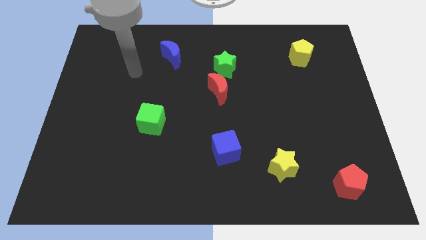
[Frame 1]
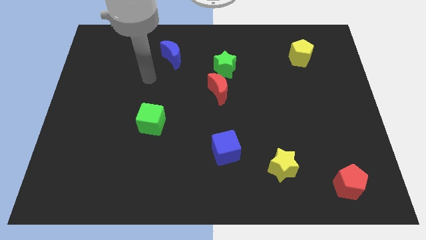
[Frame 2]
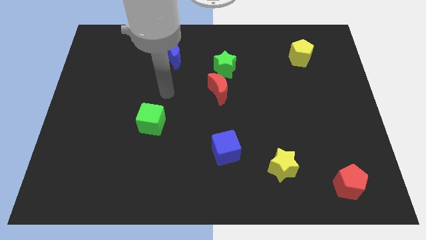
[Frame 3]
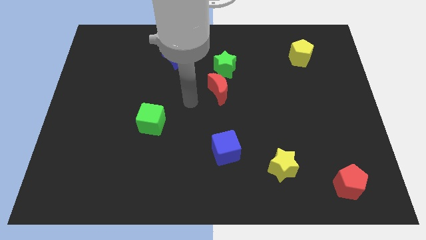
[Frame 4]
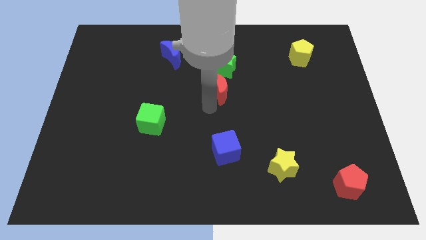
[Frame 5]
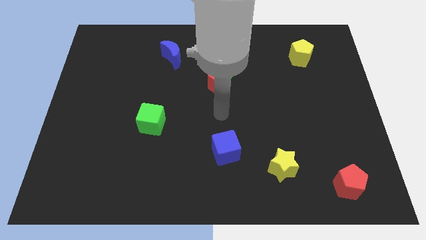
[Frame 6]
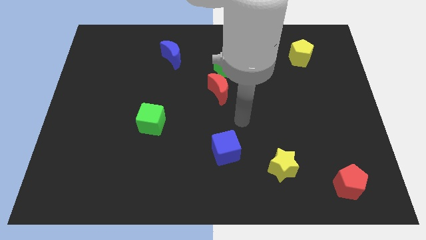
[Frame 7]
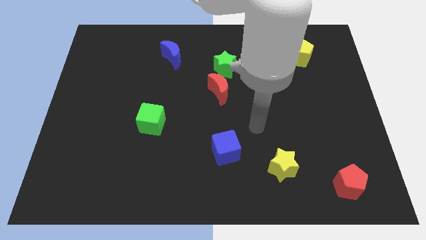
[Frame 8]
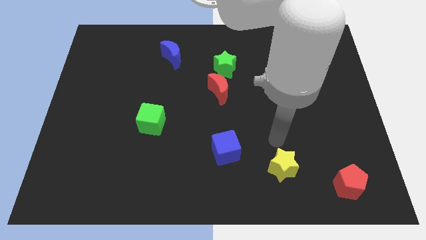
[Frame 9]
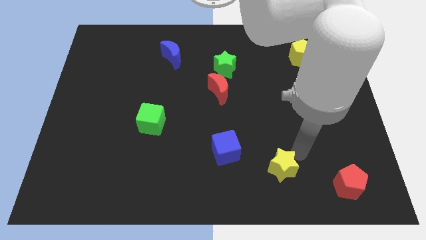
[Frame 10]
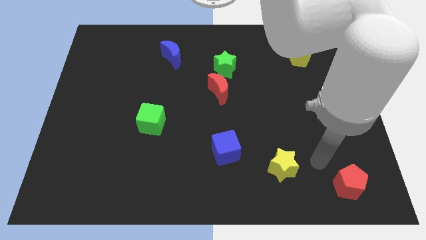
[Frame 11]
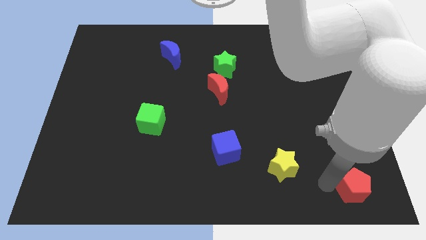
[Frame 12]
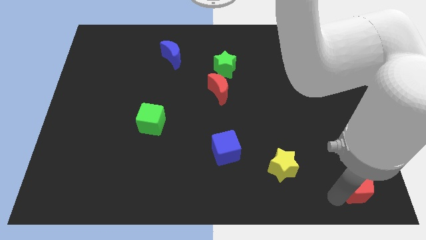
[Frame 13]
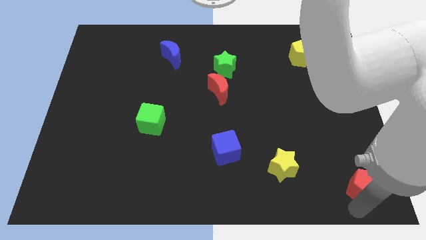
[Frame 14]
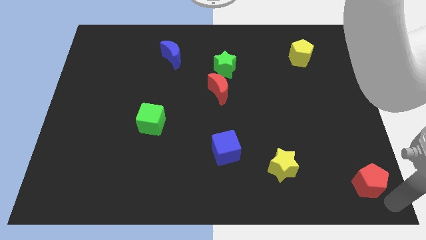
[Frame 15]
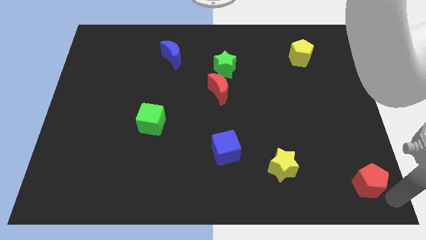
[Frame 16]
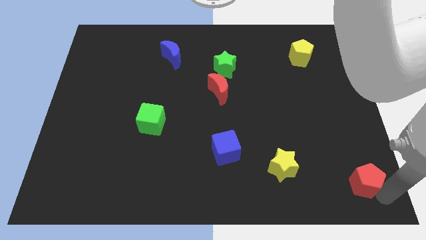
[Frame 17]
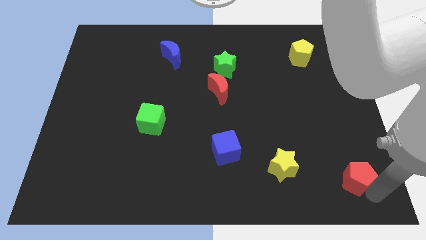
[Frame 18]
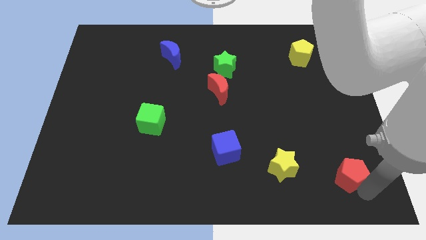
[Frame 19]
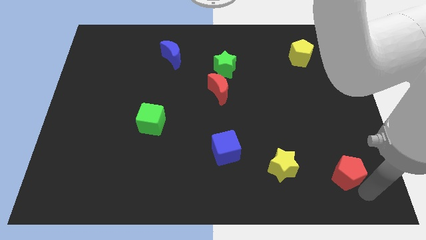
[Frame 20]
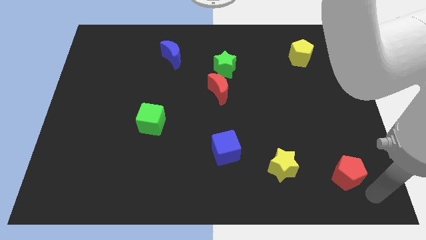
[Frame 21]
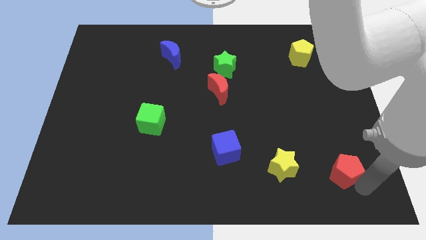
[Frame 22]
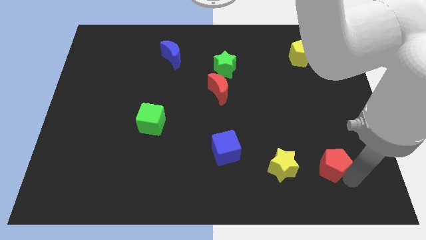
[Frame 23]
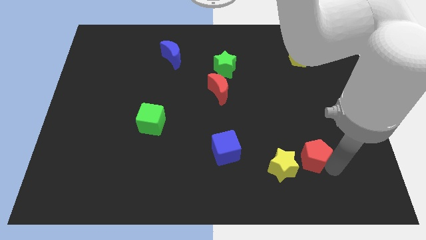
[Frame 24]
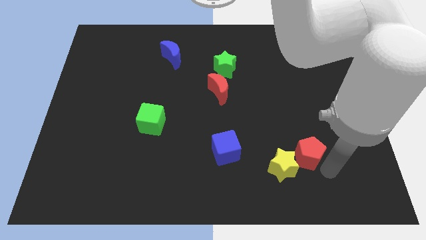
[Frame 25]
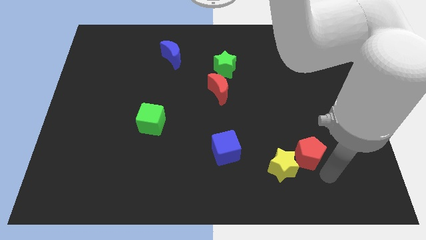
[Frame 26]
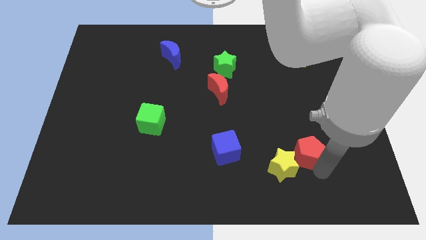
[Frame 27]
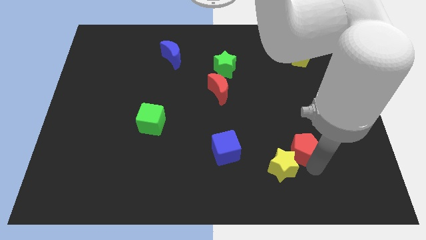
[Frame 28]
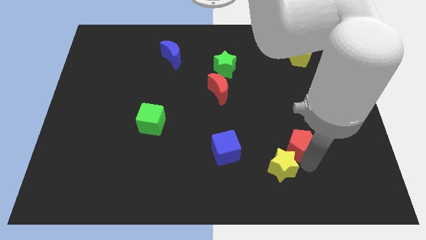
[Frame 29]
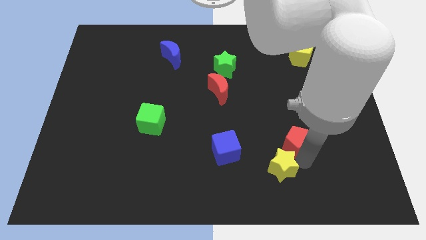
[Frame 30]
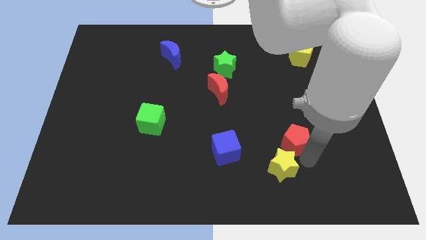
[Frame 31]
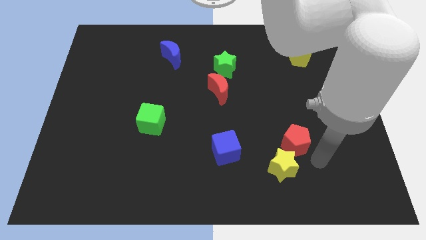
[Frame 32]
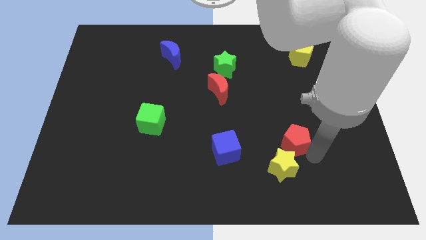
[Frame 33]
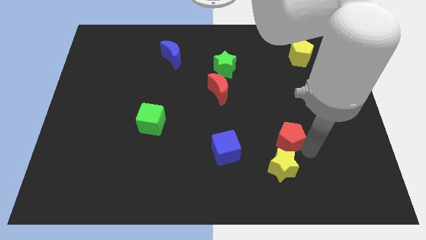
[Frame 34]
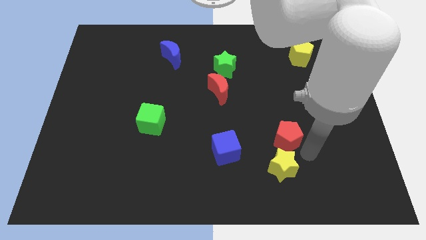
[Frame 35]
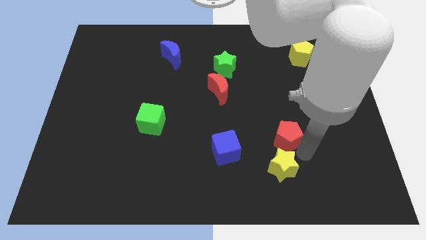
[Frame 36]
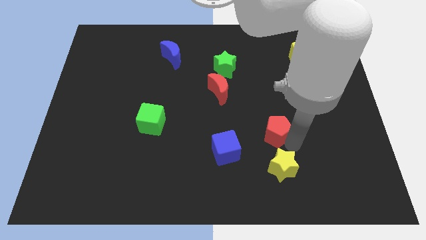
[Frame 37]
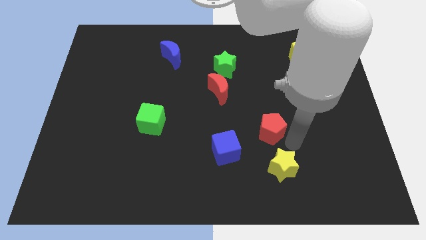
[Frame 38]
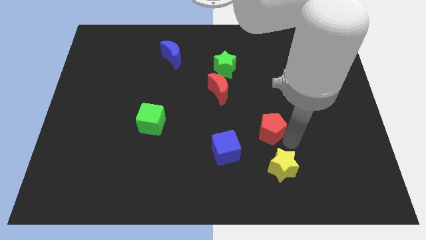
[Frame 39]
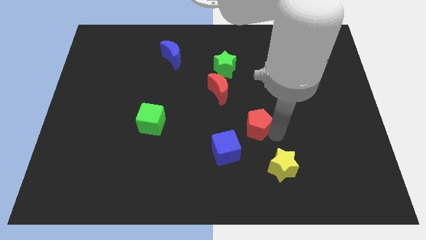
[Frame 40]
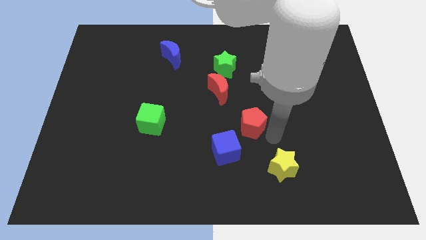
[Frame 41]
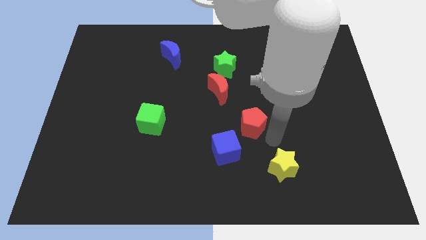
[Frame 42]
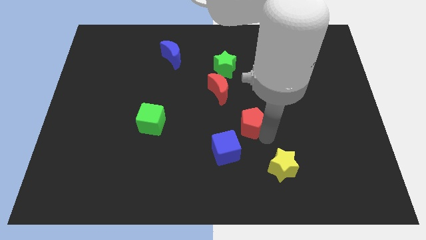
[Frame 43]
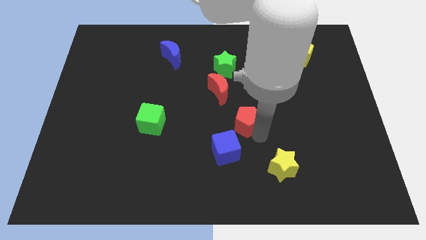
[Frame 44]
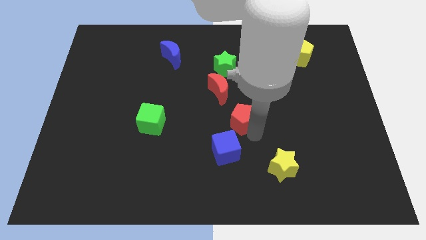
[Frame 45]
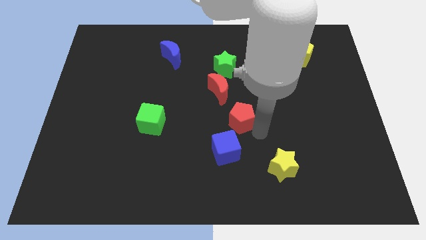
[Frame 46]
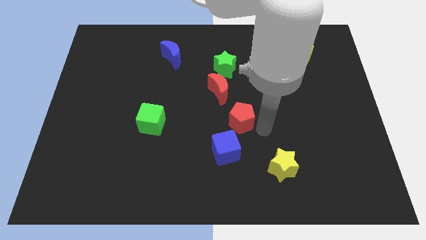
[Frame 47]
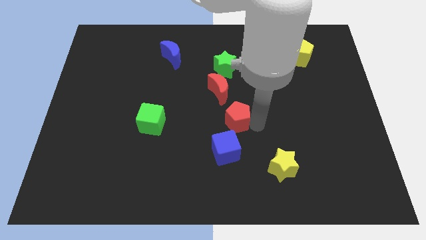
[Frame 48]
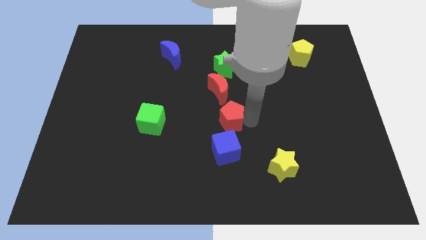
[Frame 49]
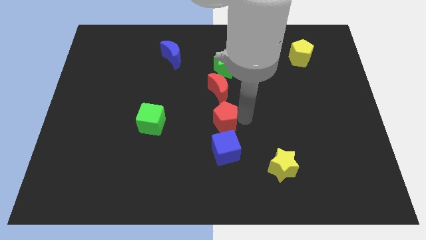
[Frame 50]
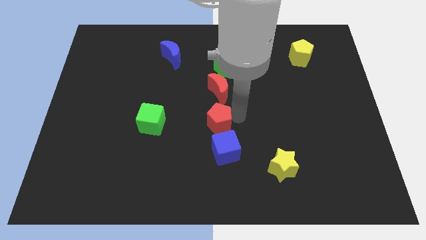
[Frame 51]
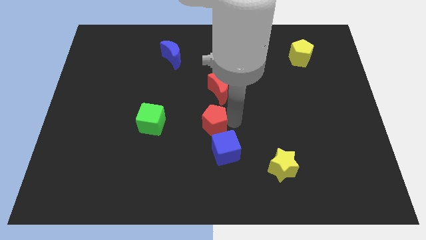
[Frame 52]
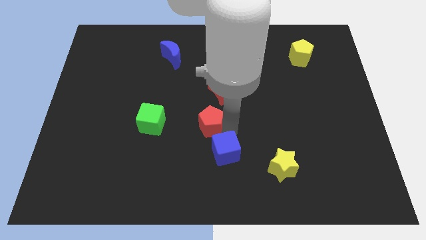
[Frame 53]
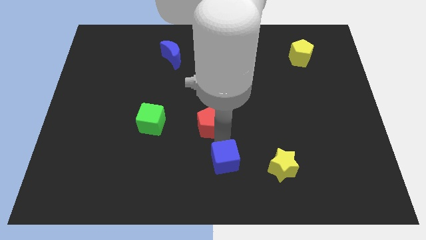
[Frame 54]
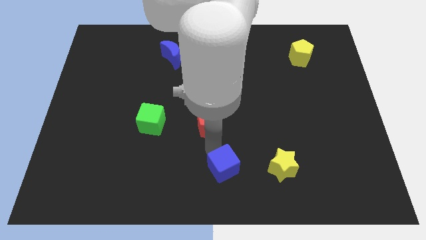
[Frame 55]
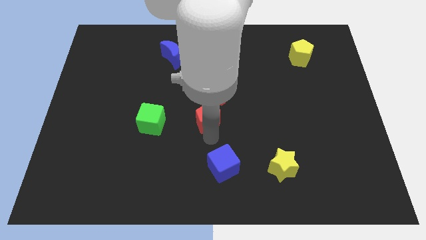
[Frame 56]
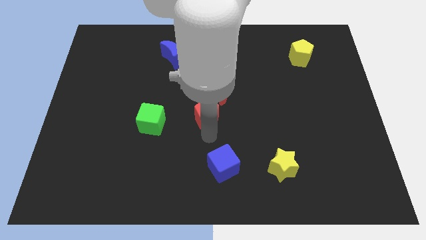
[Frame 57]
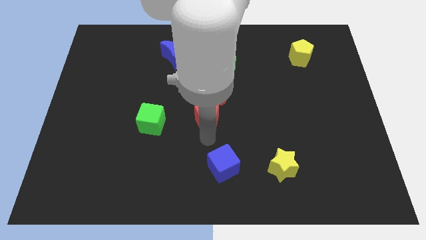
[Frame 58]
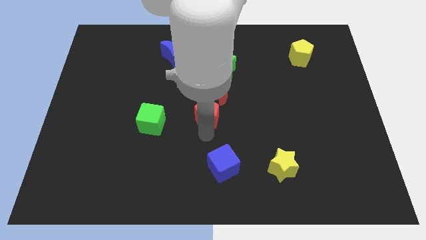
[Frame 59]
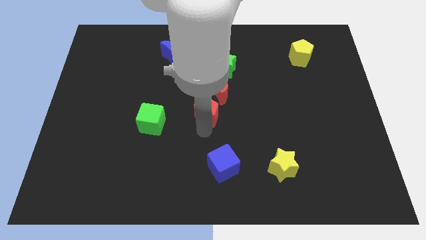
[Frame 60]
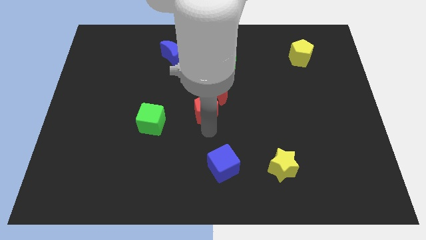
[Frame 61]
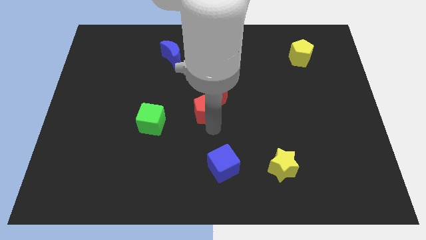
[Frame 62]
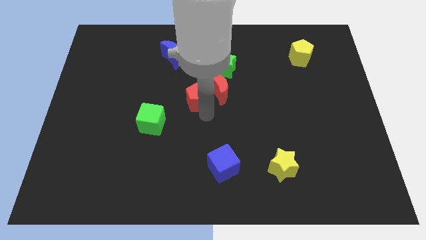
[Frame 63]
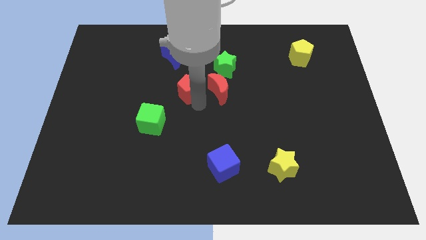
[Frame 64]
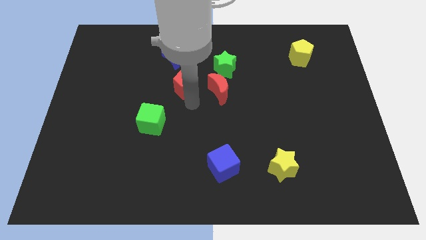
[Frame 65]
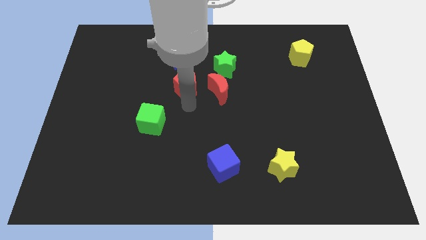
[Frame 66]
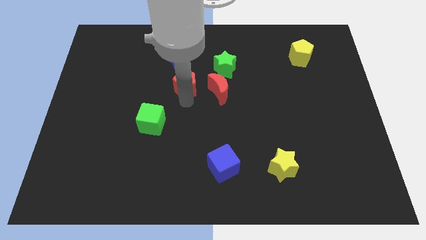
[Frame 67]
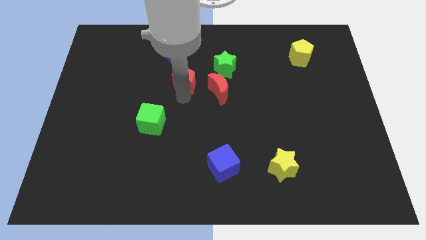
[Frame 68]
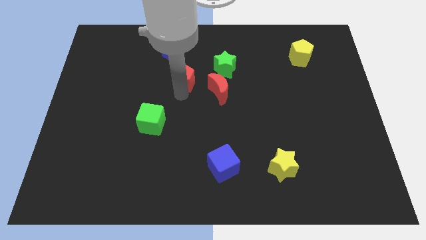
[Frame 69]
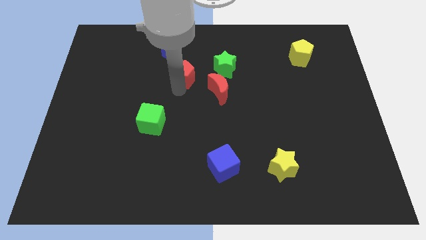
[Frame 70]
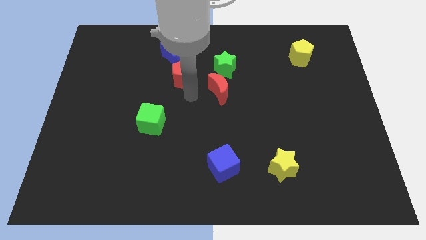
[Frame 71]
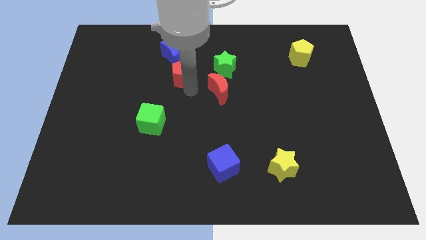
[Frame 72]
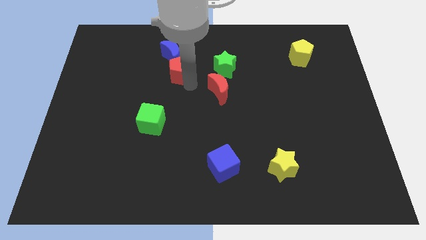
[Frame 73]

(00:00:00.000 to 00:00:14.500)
put the red pentagon towards the blue moon
